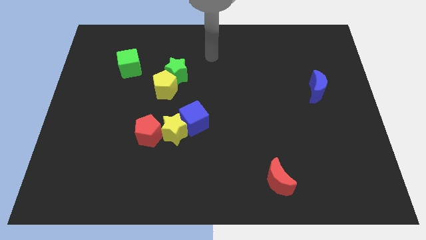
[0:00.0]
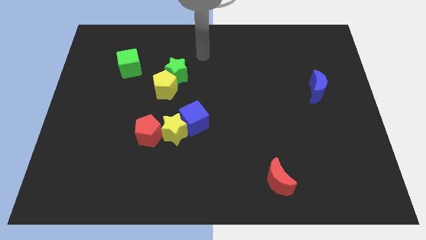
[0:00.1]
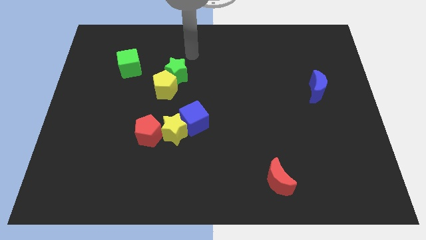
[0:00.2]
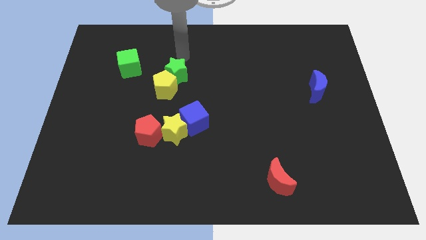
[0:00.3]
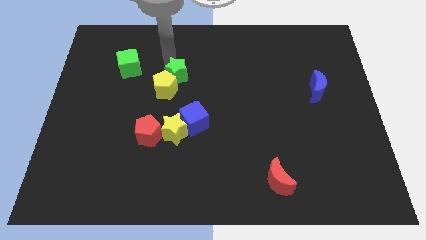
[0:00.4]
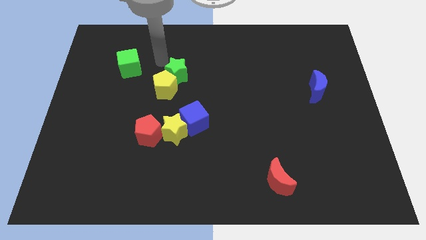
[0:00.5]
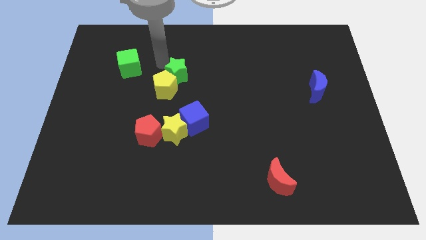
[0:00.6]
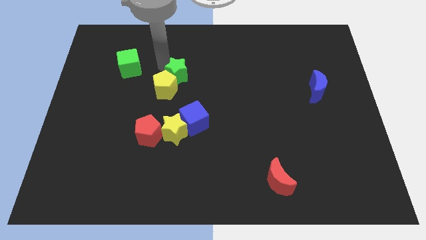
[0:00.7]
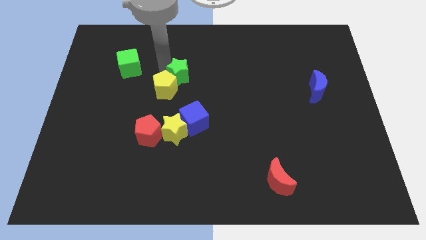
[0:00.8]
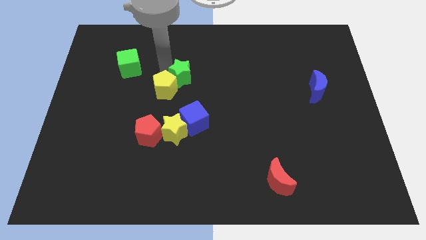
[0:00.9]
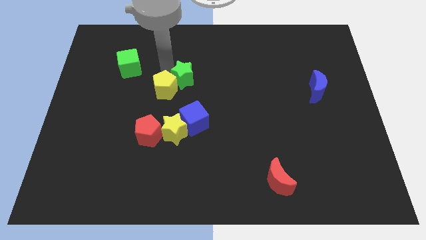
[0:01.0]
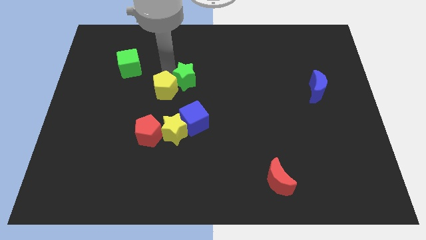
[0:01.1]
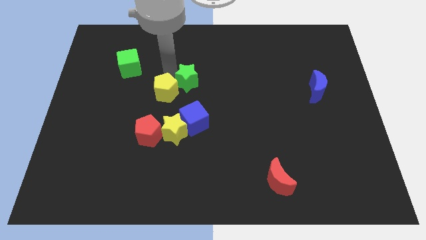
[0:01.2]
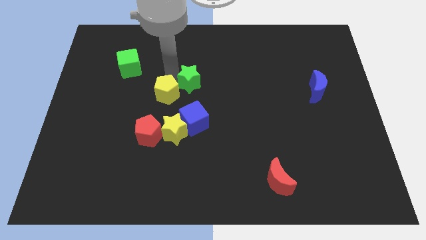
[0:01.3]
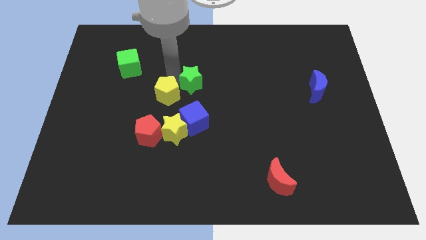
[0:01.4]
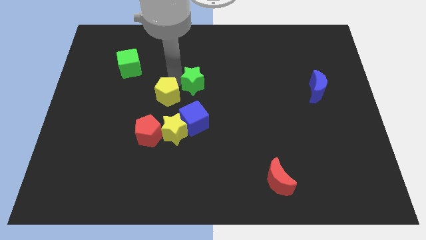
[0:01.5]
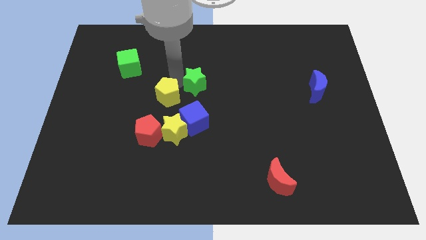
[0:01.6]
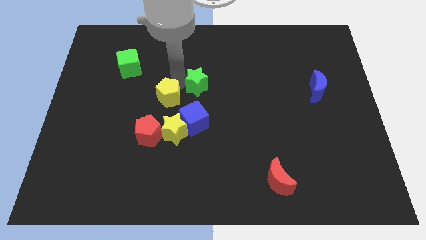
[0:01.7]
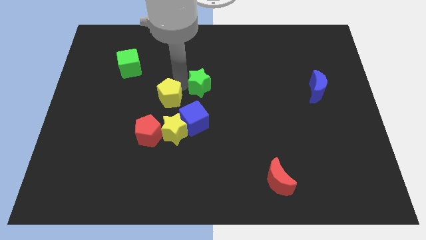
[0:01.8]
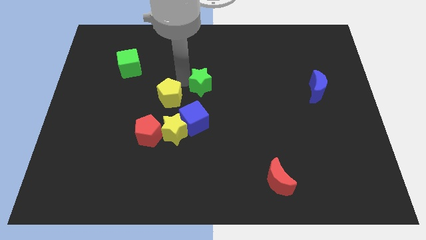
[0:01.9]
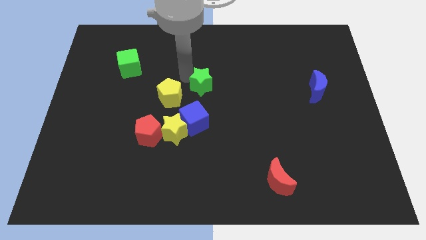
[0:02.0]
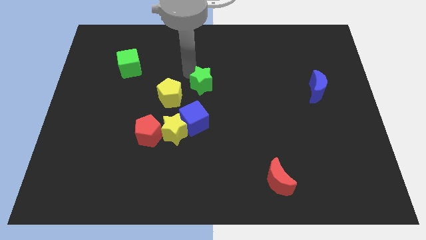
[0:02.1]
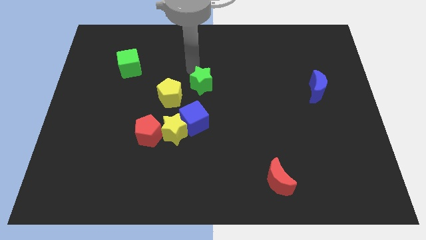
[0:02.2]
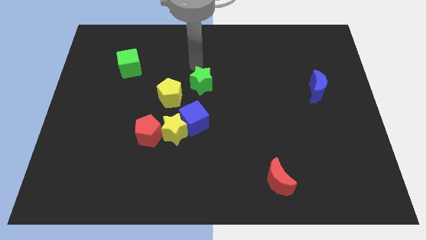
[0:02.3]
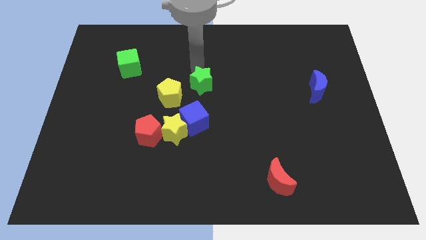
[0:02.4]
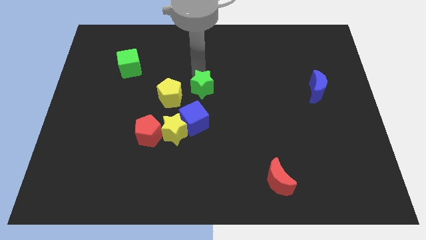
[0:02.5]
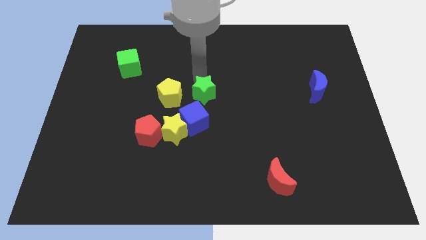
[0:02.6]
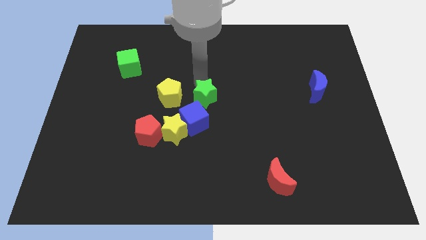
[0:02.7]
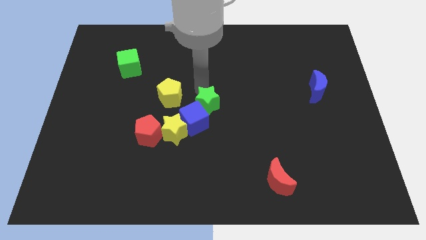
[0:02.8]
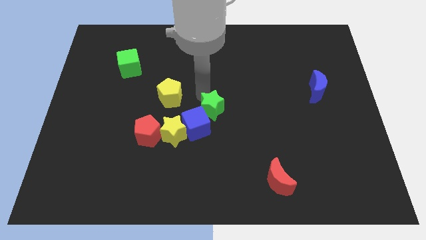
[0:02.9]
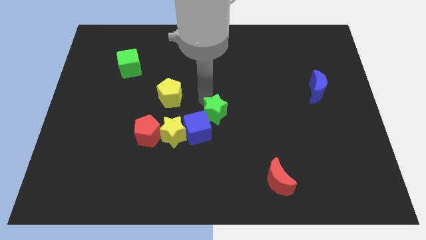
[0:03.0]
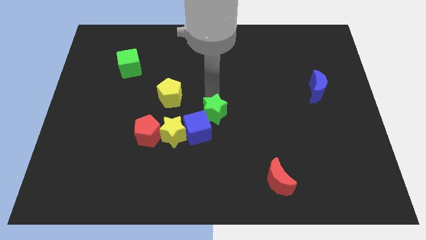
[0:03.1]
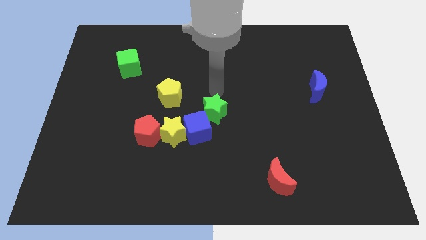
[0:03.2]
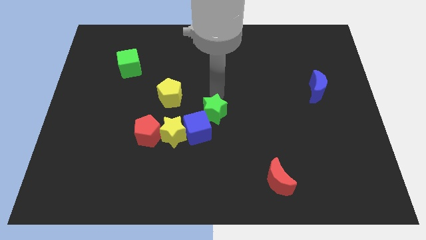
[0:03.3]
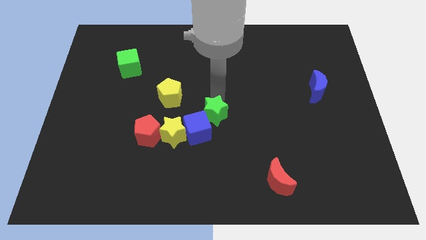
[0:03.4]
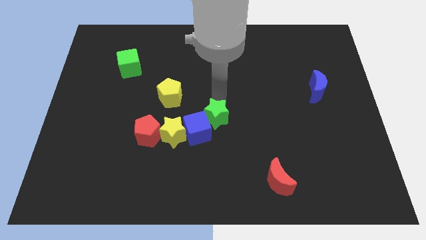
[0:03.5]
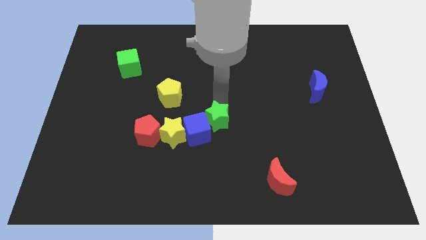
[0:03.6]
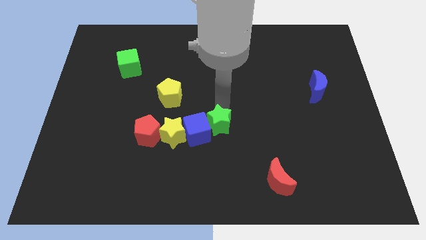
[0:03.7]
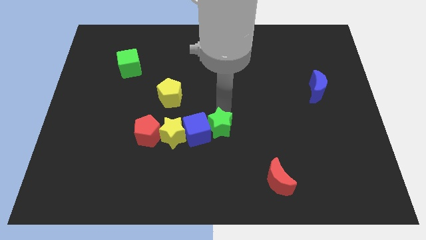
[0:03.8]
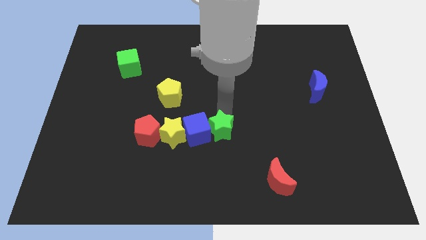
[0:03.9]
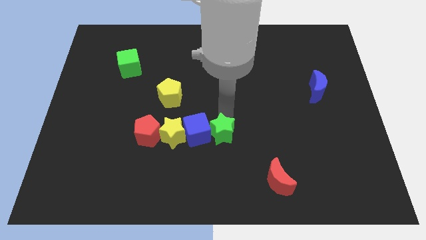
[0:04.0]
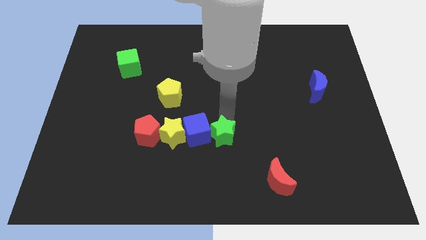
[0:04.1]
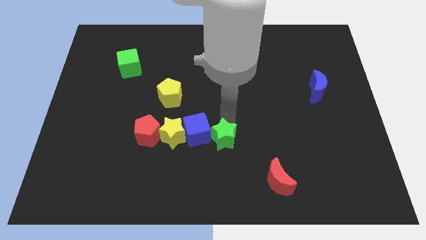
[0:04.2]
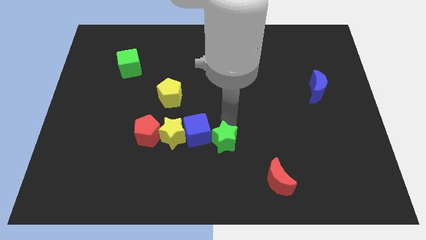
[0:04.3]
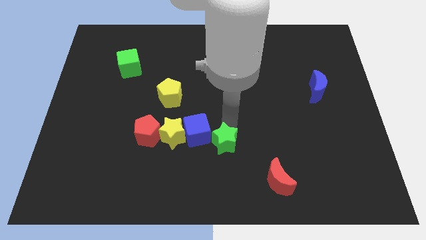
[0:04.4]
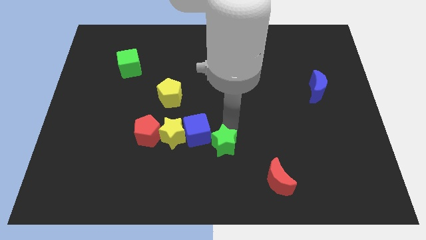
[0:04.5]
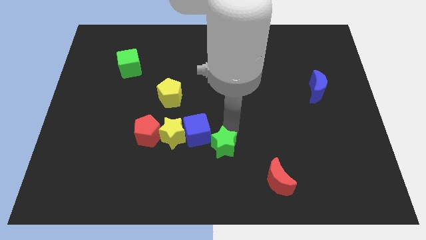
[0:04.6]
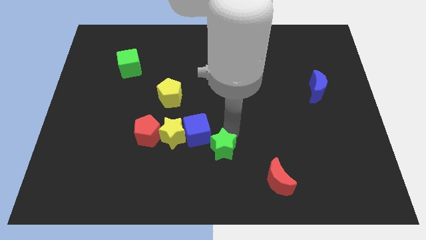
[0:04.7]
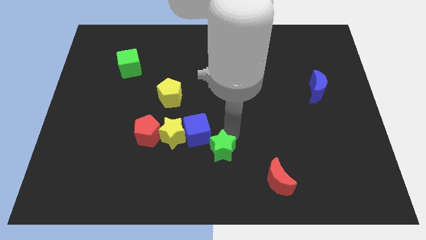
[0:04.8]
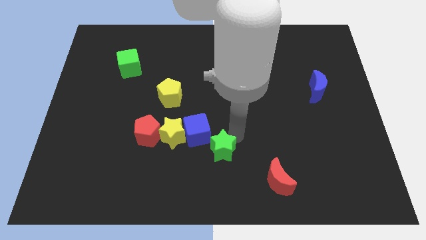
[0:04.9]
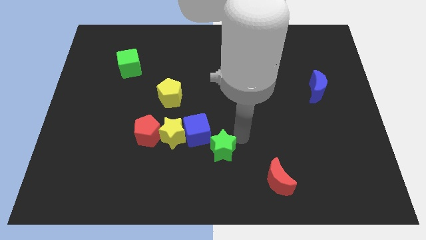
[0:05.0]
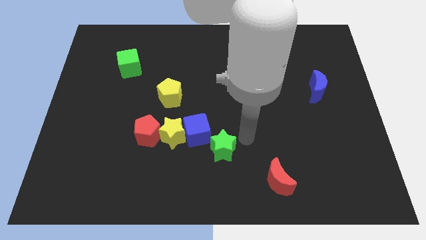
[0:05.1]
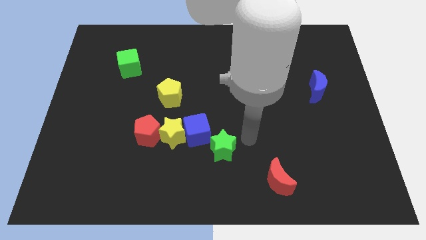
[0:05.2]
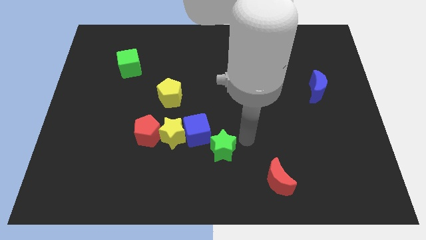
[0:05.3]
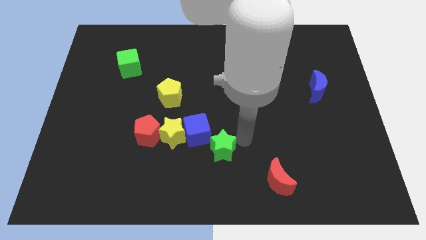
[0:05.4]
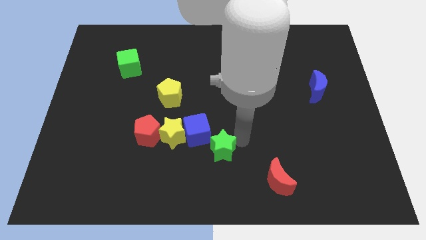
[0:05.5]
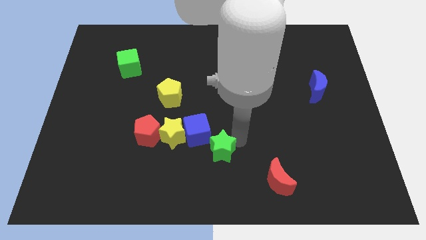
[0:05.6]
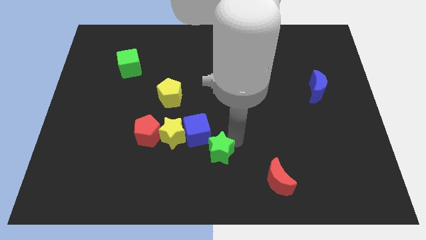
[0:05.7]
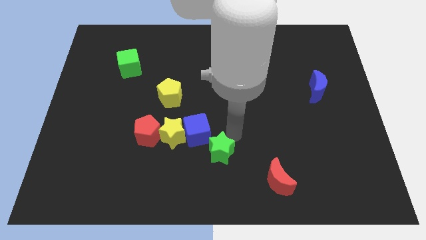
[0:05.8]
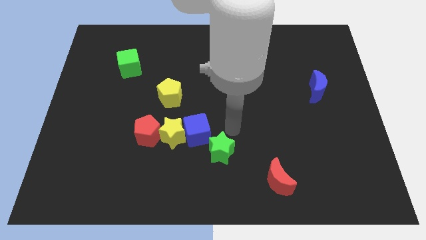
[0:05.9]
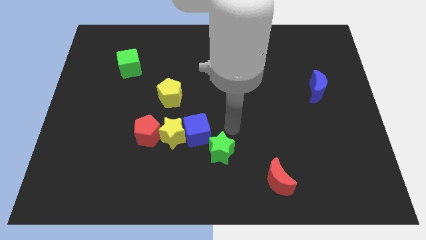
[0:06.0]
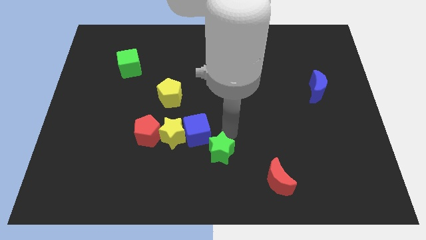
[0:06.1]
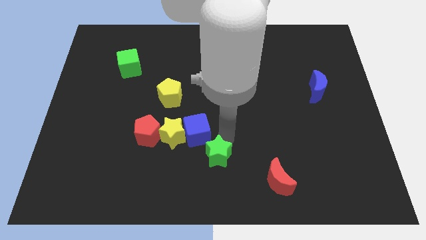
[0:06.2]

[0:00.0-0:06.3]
push the green star to the bottom

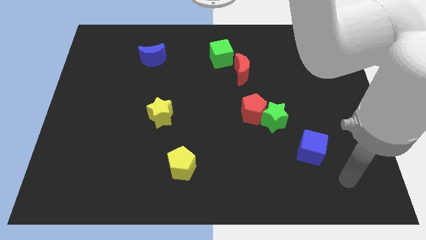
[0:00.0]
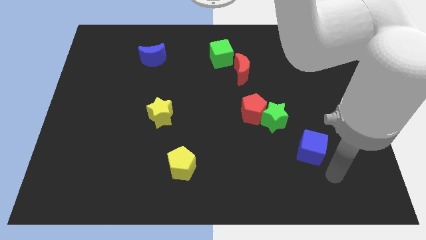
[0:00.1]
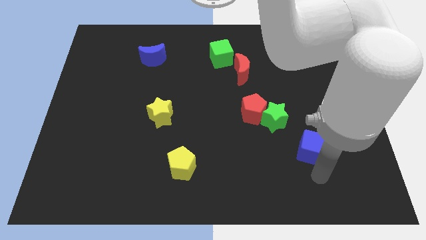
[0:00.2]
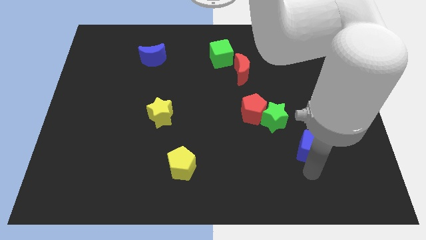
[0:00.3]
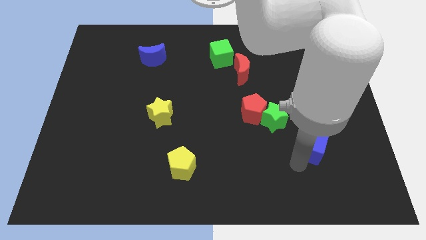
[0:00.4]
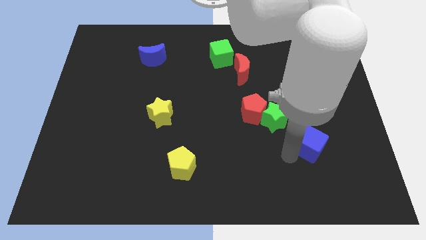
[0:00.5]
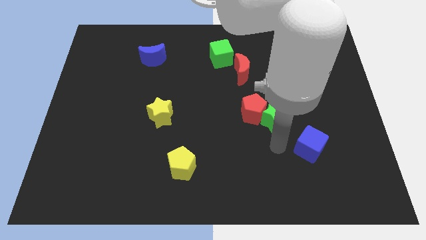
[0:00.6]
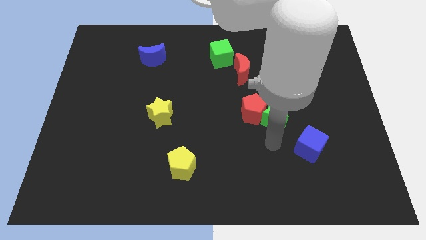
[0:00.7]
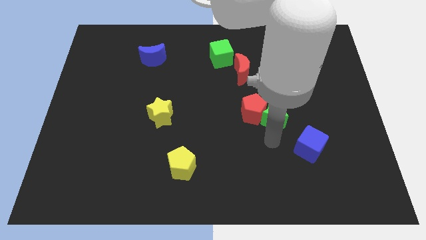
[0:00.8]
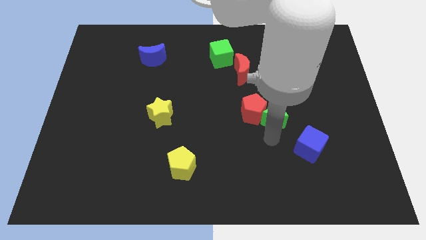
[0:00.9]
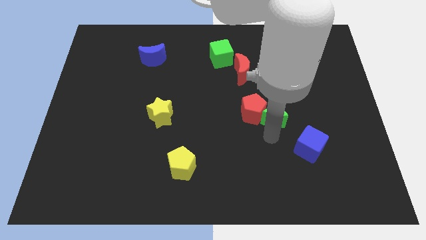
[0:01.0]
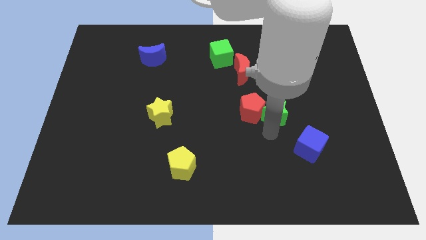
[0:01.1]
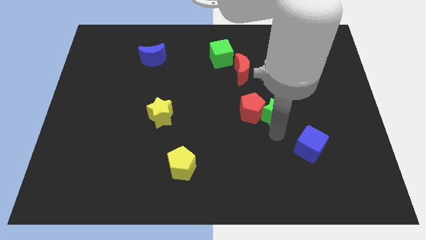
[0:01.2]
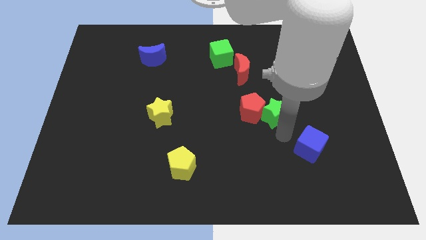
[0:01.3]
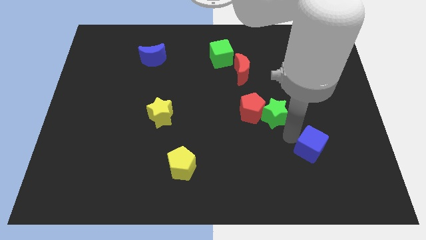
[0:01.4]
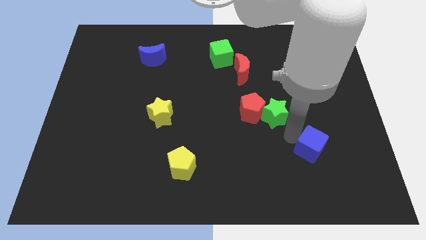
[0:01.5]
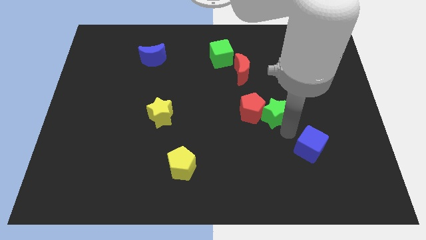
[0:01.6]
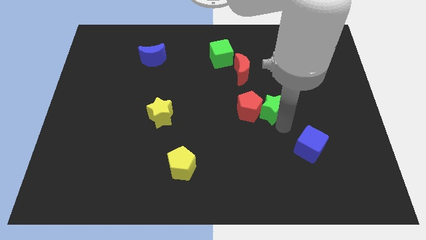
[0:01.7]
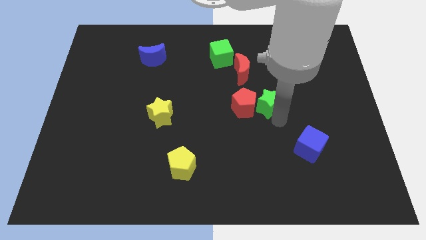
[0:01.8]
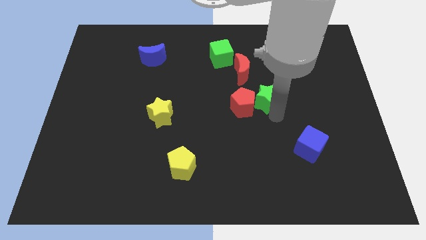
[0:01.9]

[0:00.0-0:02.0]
move the green star to the middle of the board
